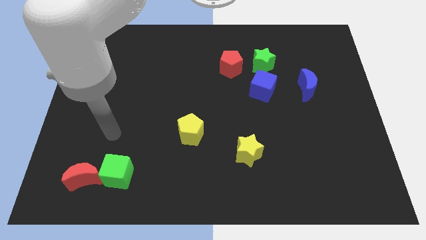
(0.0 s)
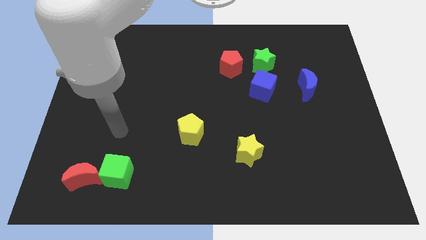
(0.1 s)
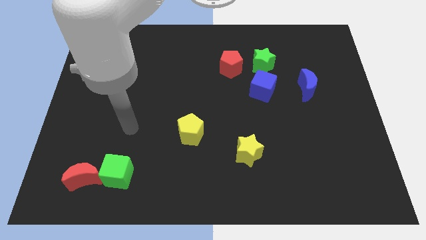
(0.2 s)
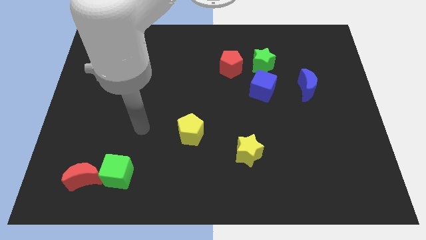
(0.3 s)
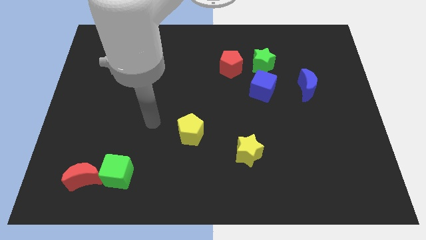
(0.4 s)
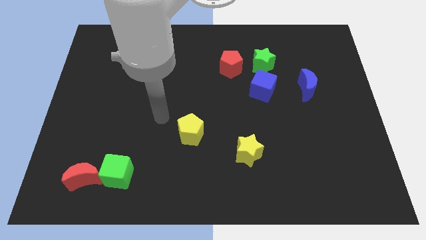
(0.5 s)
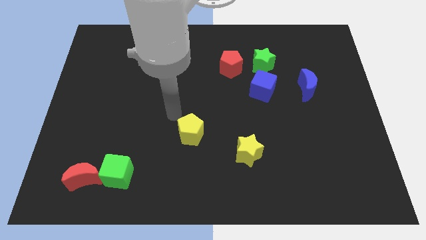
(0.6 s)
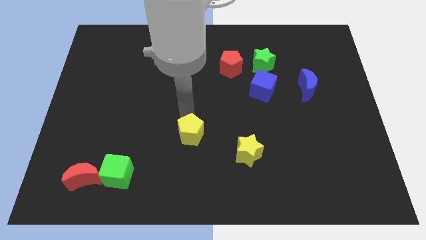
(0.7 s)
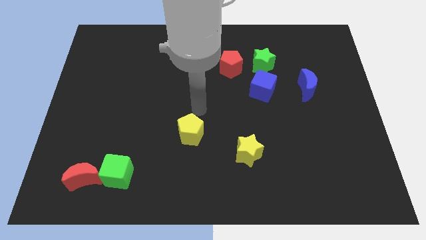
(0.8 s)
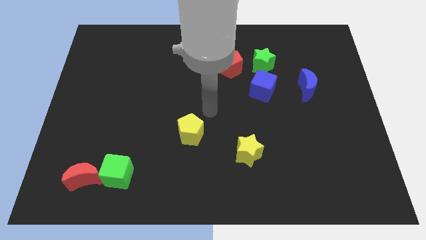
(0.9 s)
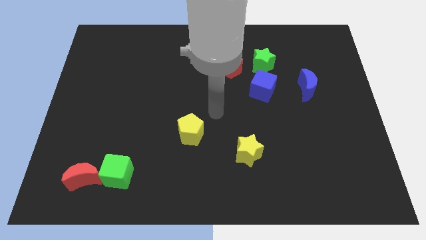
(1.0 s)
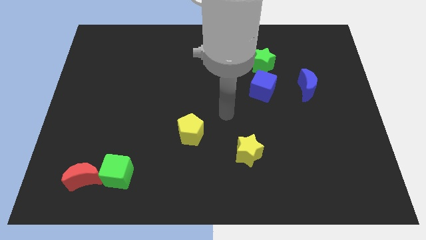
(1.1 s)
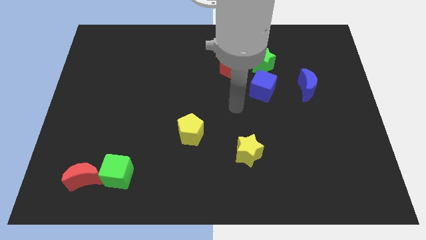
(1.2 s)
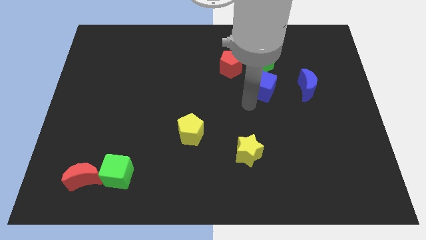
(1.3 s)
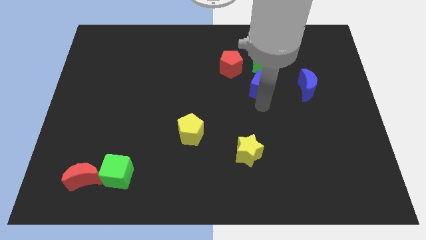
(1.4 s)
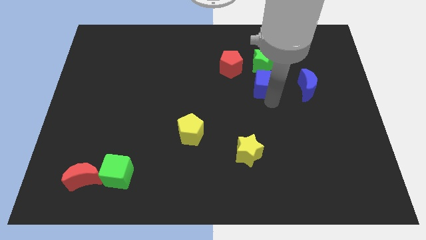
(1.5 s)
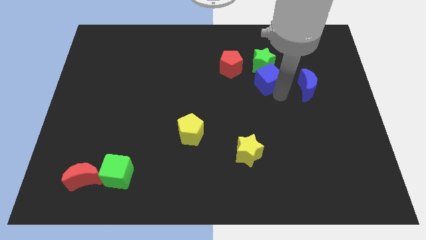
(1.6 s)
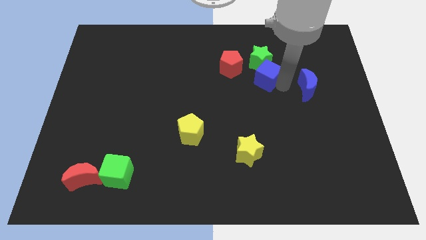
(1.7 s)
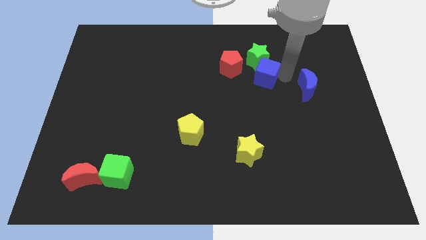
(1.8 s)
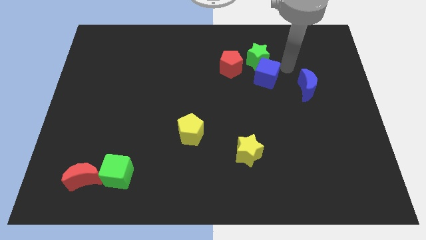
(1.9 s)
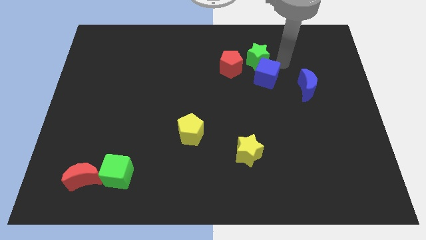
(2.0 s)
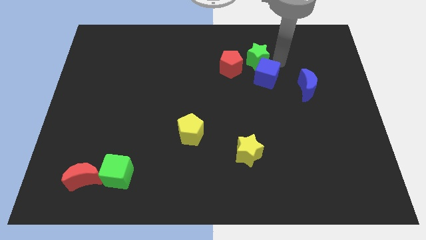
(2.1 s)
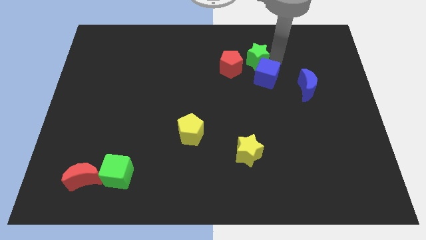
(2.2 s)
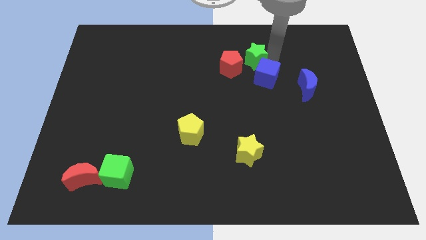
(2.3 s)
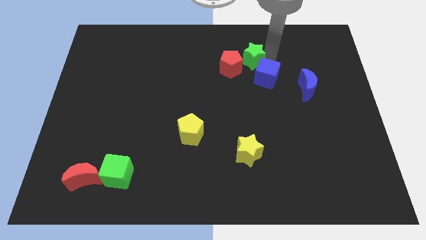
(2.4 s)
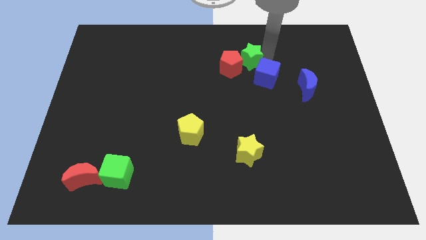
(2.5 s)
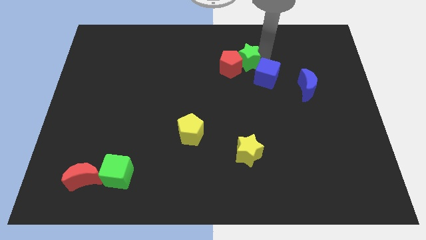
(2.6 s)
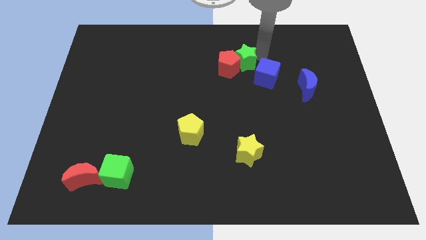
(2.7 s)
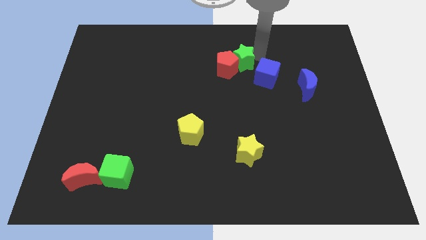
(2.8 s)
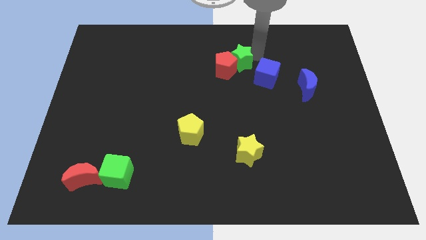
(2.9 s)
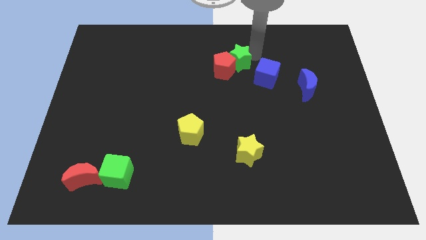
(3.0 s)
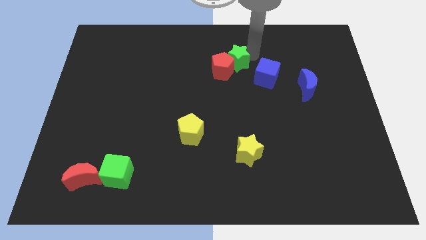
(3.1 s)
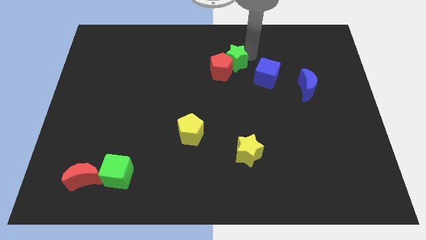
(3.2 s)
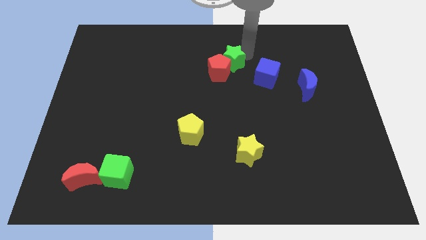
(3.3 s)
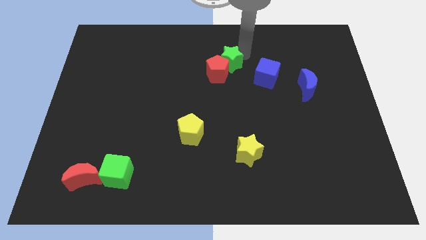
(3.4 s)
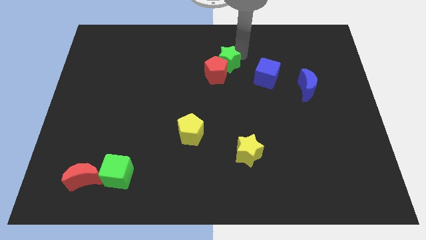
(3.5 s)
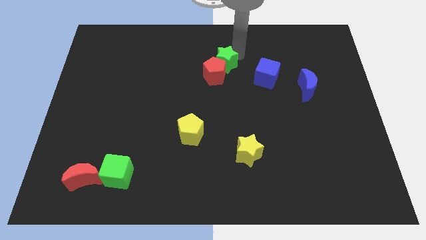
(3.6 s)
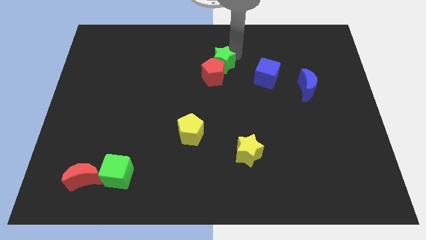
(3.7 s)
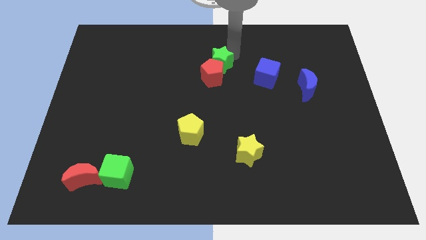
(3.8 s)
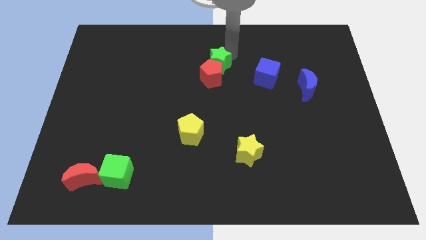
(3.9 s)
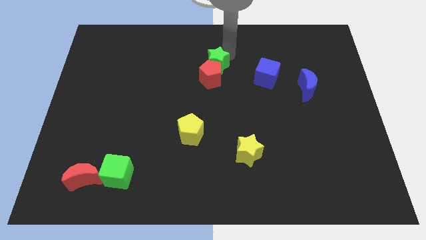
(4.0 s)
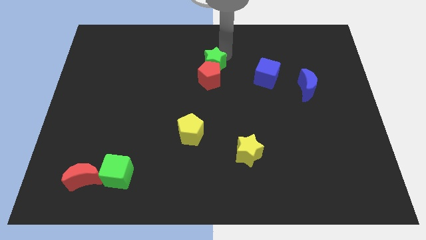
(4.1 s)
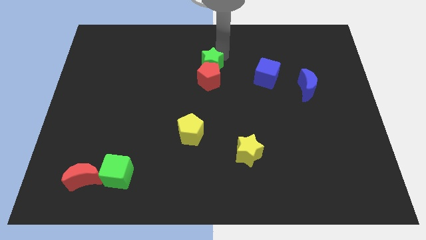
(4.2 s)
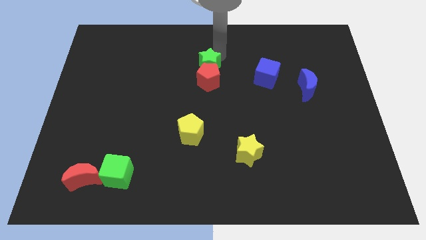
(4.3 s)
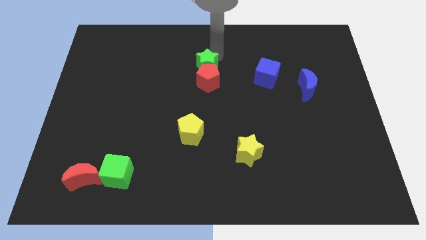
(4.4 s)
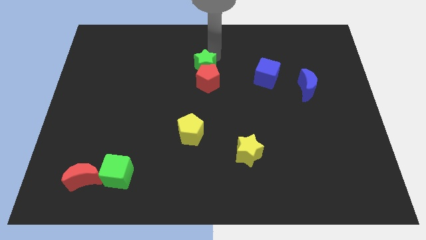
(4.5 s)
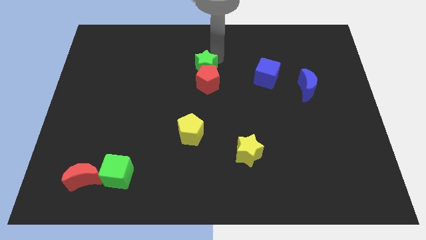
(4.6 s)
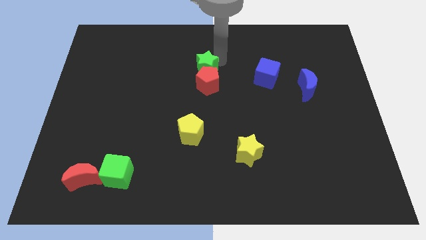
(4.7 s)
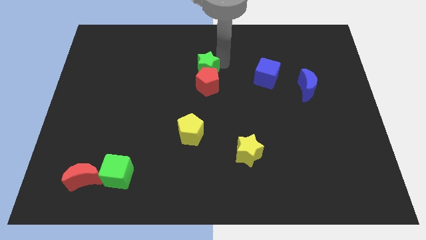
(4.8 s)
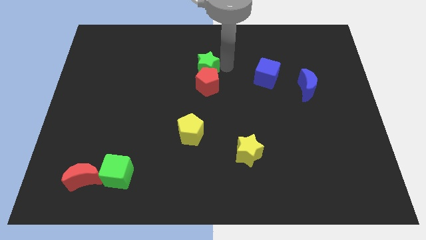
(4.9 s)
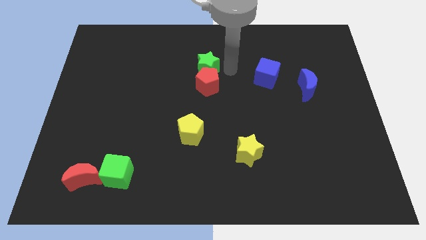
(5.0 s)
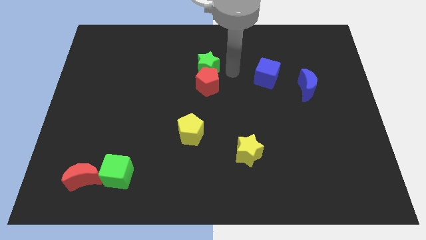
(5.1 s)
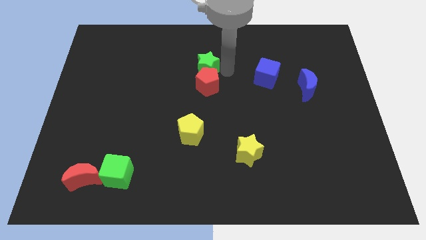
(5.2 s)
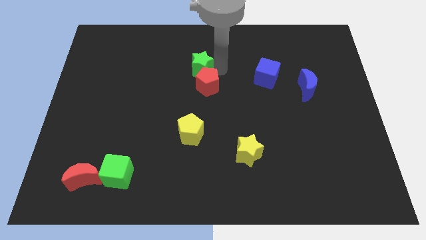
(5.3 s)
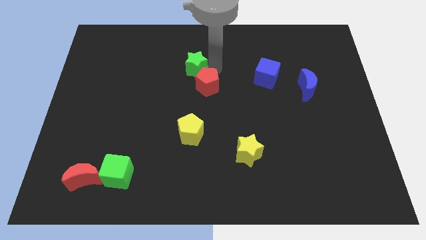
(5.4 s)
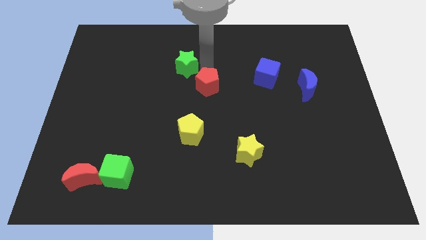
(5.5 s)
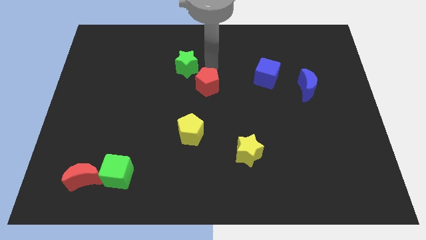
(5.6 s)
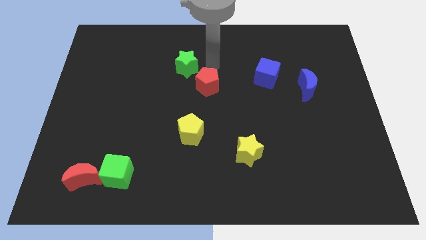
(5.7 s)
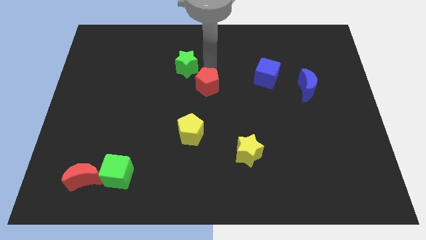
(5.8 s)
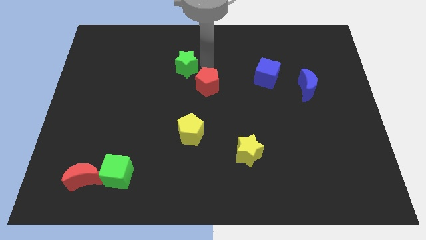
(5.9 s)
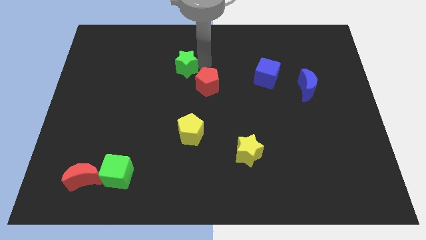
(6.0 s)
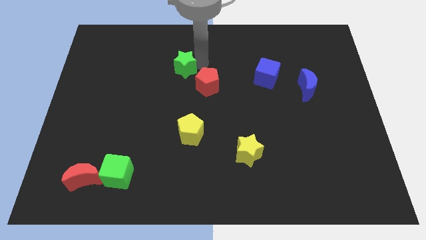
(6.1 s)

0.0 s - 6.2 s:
slide the green star to the left

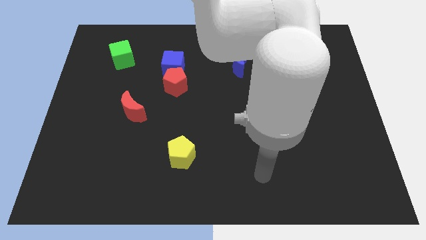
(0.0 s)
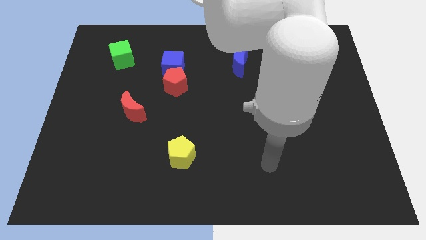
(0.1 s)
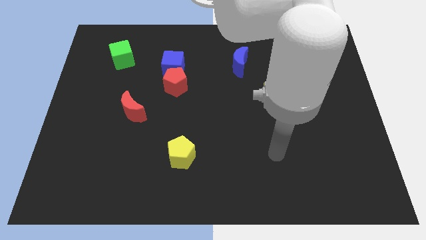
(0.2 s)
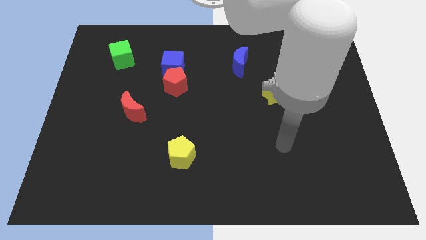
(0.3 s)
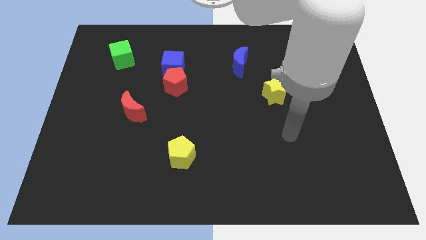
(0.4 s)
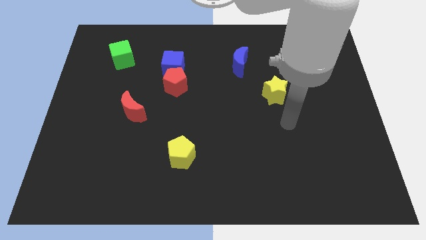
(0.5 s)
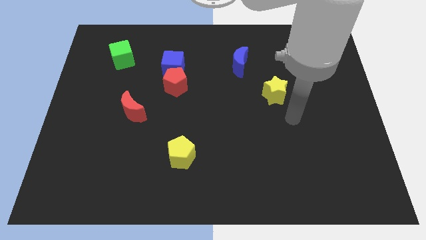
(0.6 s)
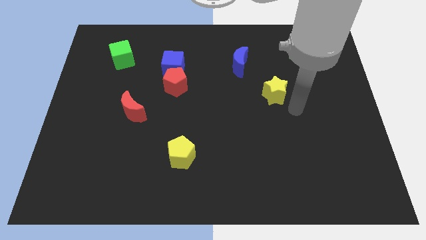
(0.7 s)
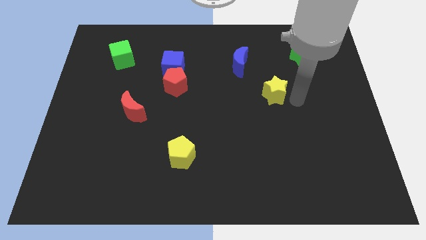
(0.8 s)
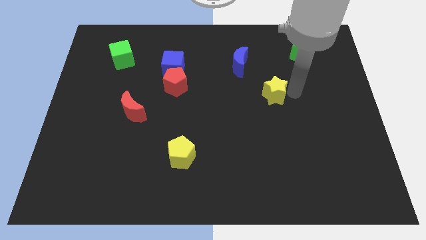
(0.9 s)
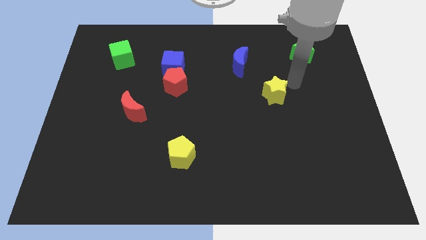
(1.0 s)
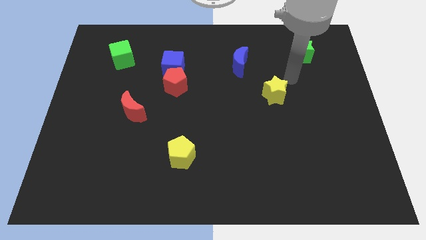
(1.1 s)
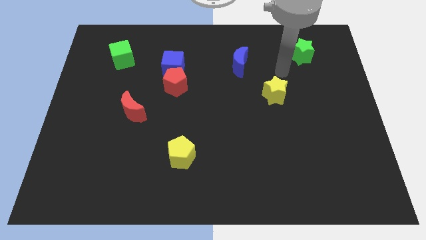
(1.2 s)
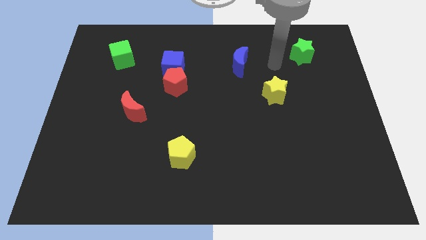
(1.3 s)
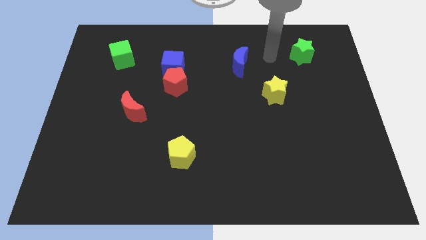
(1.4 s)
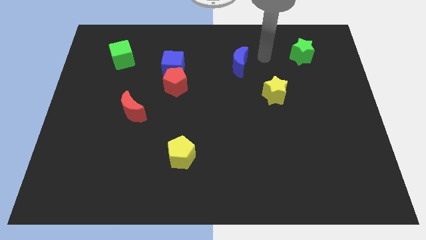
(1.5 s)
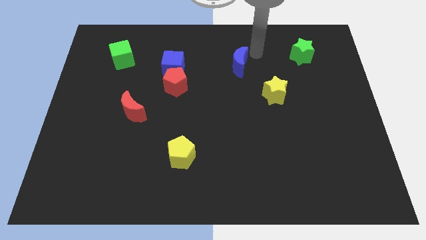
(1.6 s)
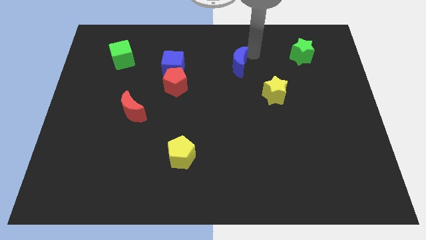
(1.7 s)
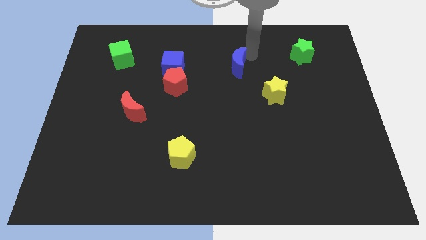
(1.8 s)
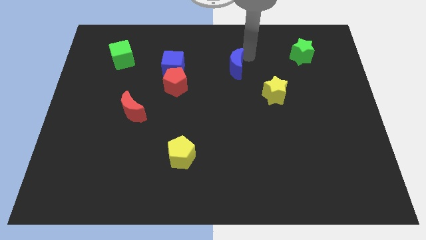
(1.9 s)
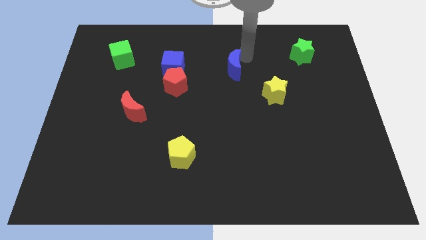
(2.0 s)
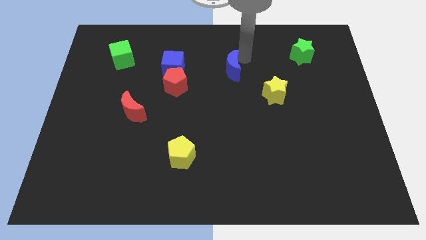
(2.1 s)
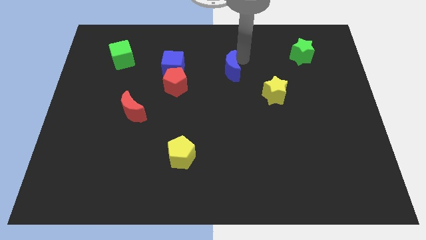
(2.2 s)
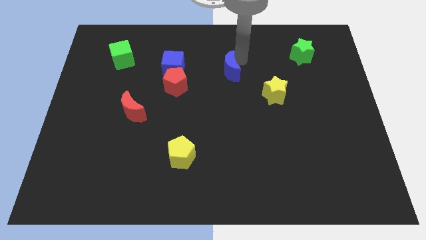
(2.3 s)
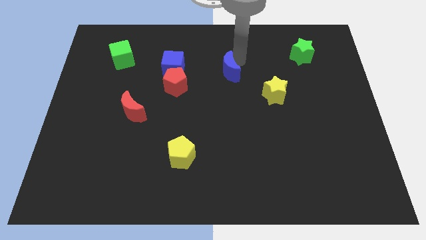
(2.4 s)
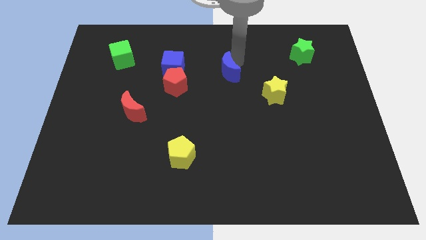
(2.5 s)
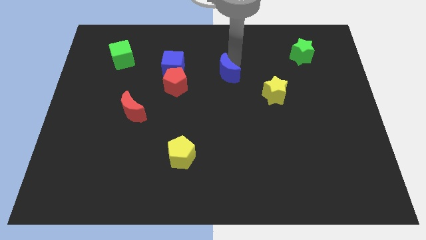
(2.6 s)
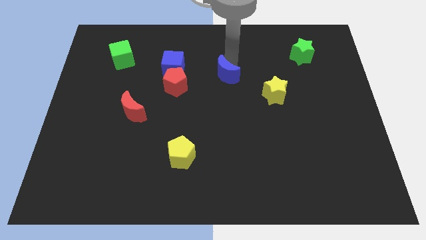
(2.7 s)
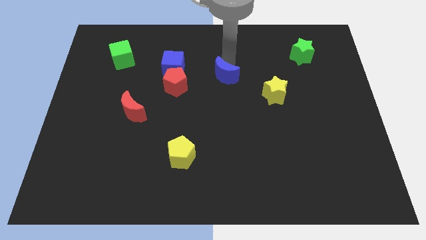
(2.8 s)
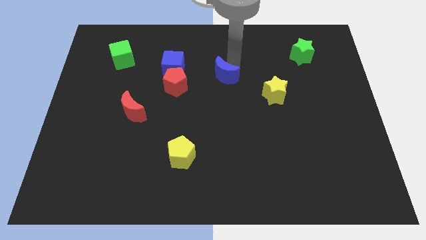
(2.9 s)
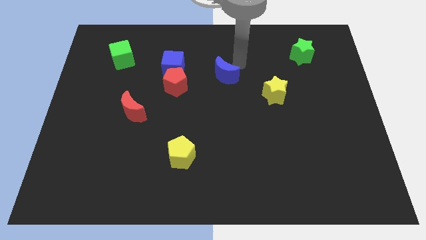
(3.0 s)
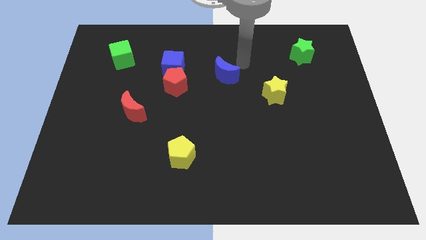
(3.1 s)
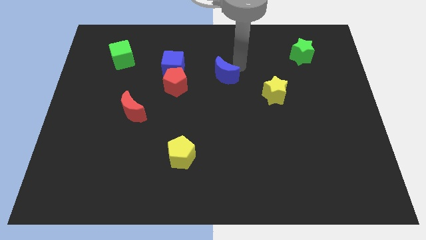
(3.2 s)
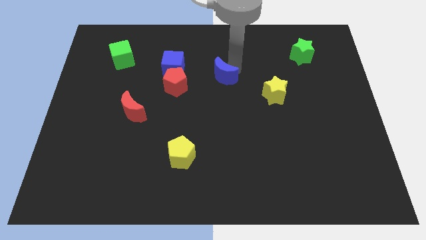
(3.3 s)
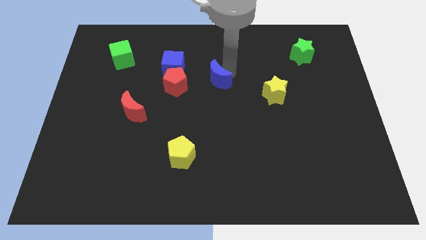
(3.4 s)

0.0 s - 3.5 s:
slightly push the blue moon downwards and left diagonally
